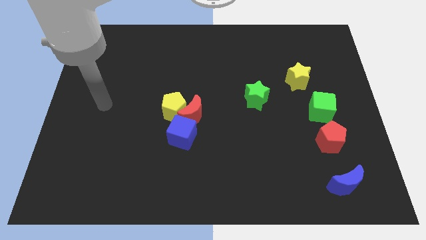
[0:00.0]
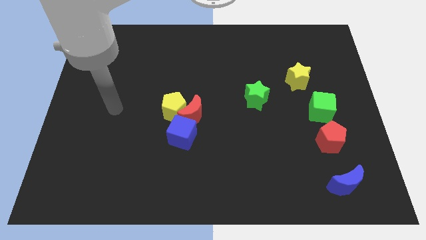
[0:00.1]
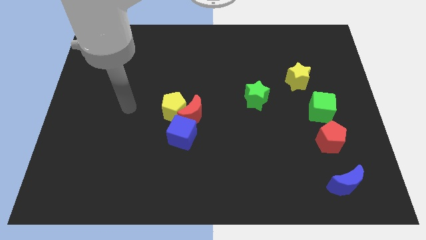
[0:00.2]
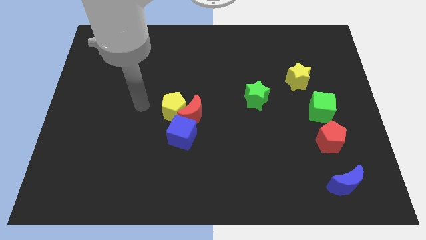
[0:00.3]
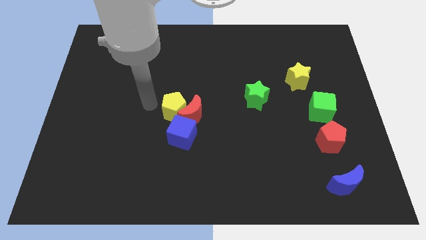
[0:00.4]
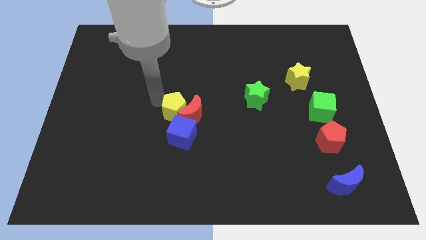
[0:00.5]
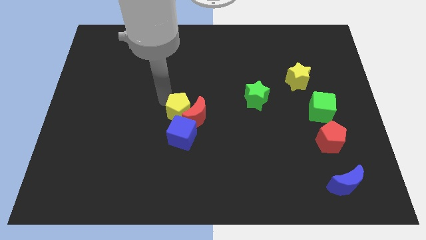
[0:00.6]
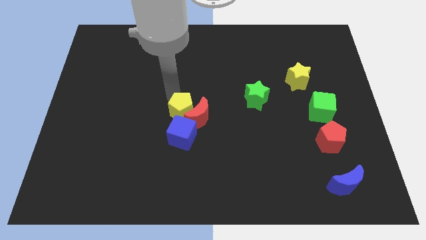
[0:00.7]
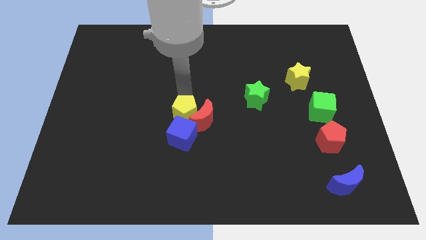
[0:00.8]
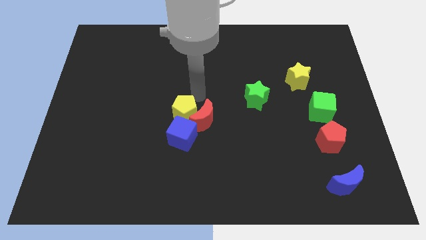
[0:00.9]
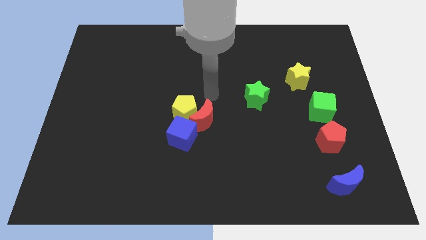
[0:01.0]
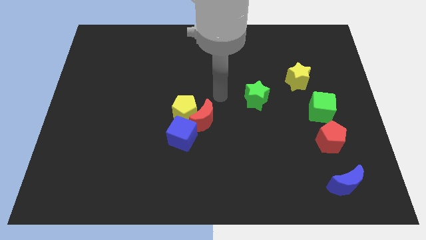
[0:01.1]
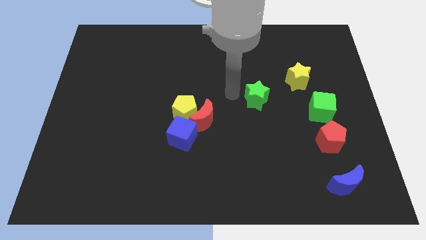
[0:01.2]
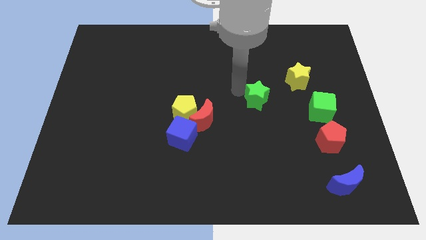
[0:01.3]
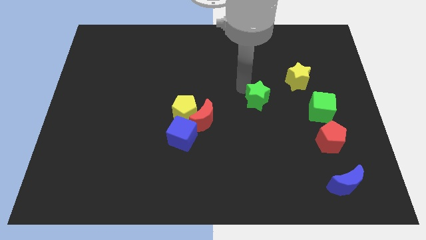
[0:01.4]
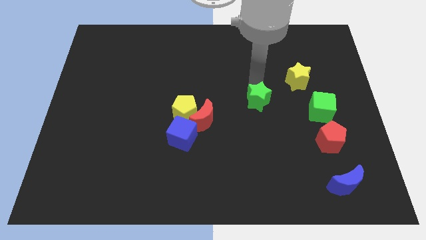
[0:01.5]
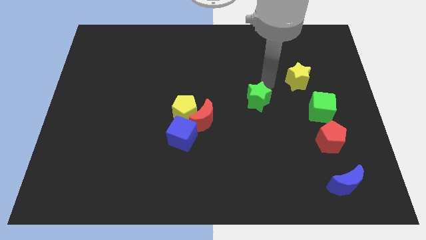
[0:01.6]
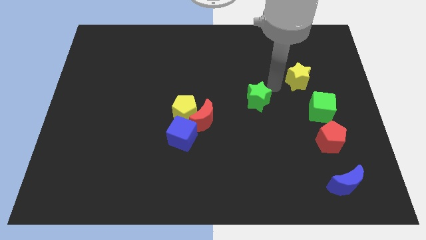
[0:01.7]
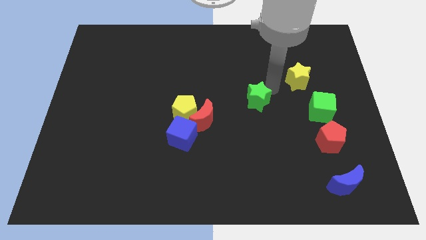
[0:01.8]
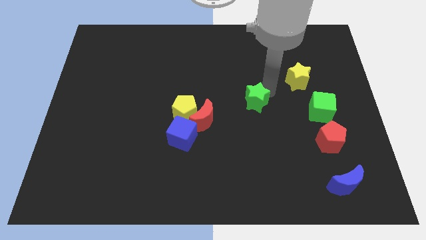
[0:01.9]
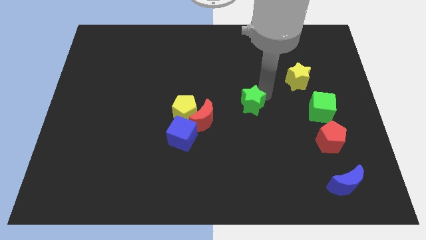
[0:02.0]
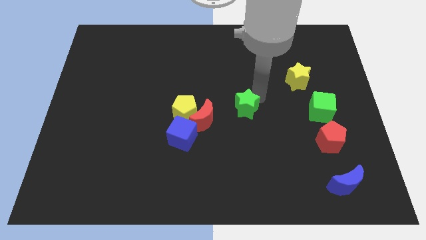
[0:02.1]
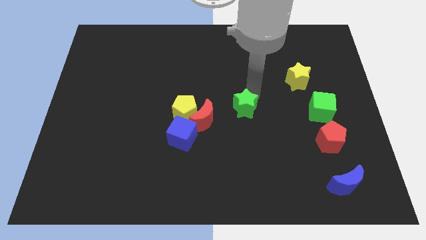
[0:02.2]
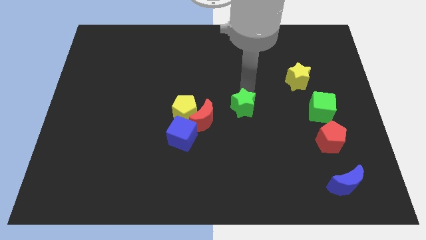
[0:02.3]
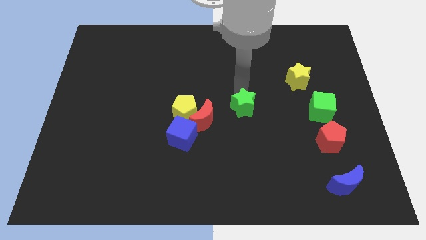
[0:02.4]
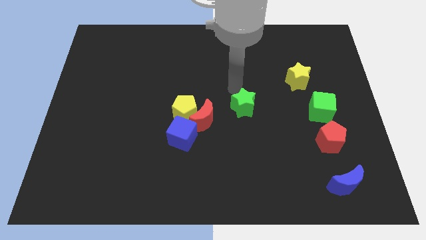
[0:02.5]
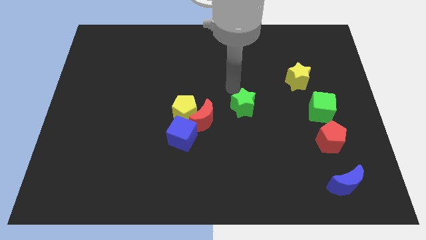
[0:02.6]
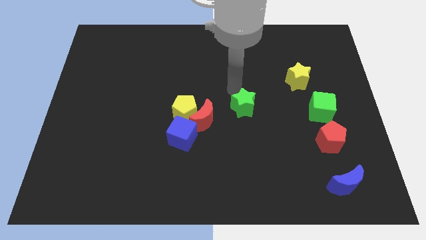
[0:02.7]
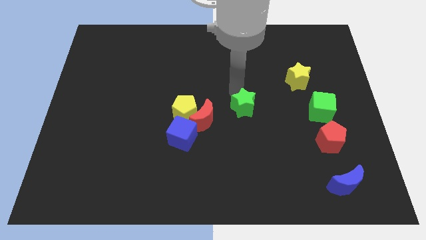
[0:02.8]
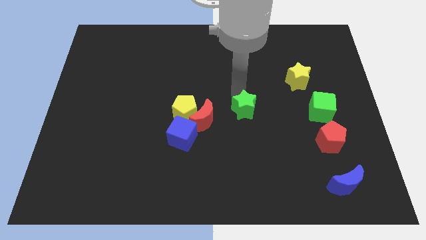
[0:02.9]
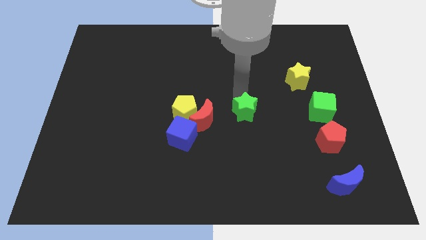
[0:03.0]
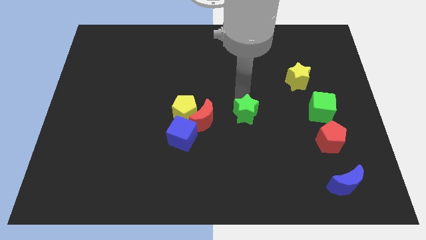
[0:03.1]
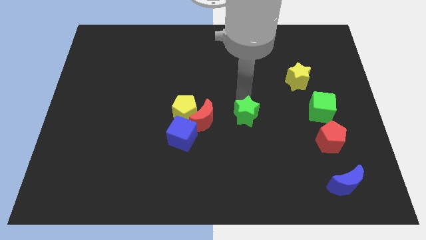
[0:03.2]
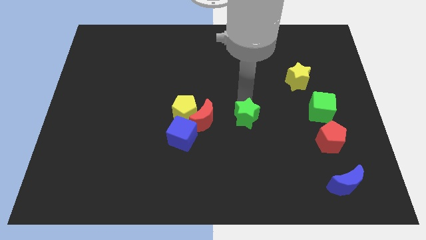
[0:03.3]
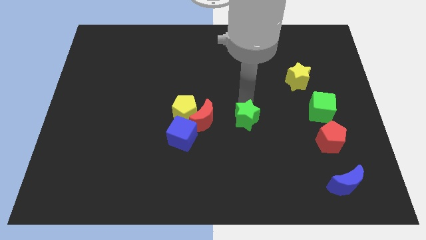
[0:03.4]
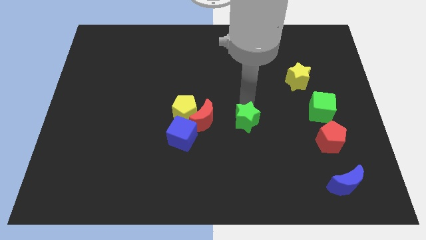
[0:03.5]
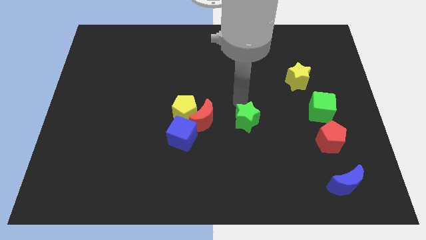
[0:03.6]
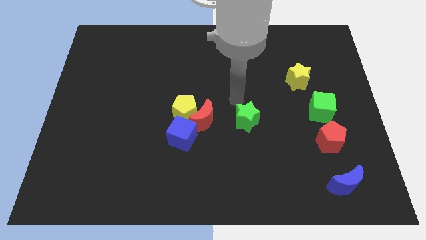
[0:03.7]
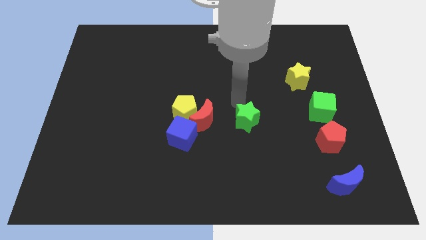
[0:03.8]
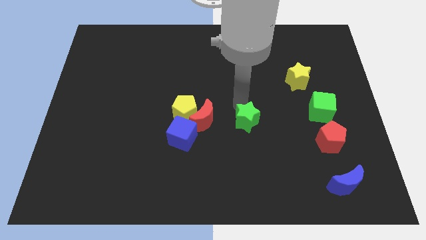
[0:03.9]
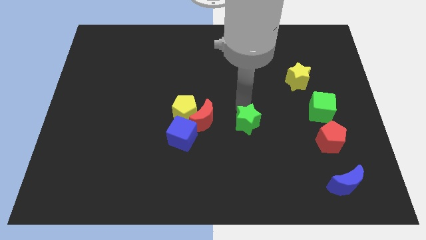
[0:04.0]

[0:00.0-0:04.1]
push the green star a bit downwards

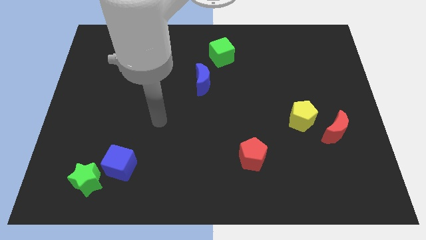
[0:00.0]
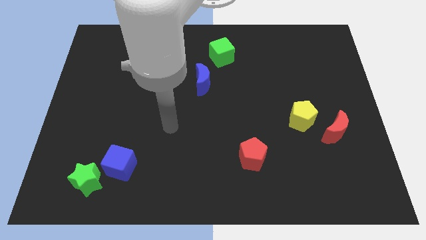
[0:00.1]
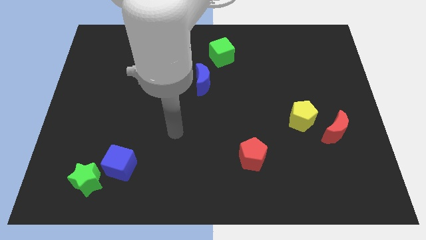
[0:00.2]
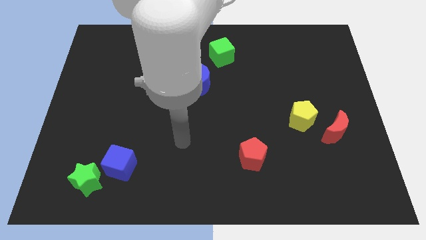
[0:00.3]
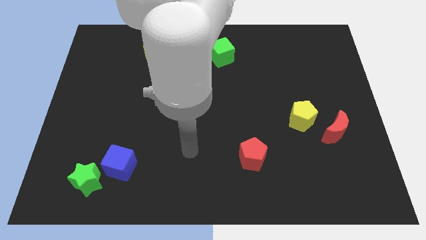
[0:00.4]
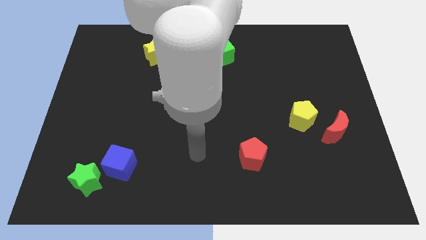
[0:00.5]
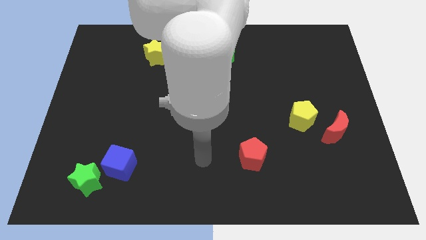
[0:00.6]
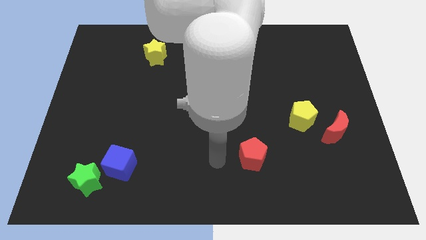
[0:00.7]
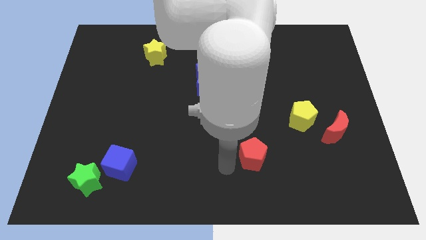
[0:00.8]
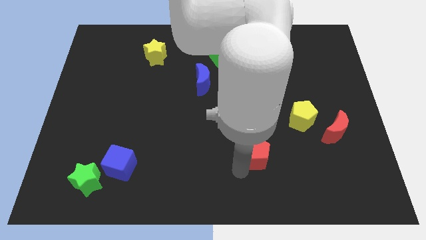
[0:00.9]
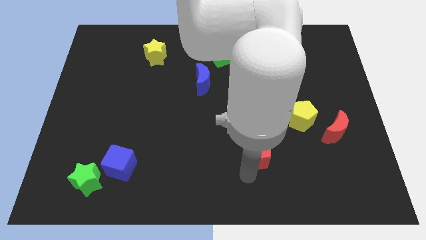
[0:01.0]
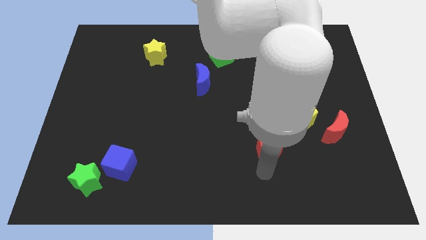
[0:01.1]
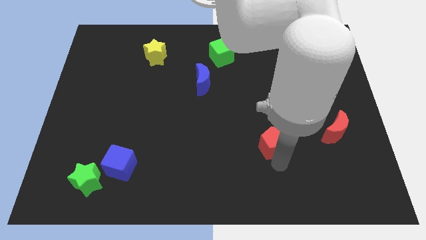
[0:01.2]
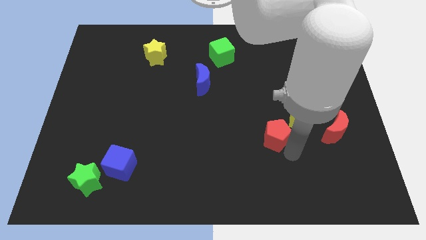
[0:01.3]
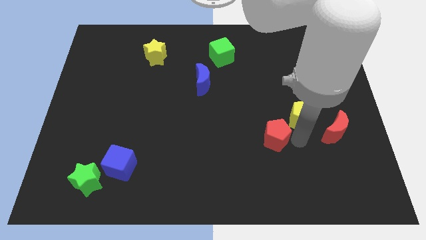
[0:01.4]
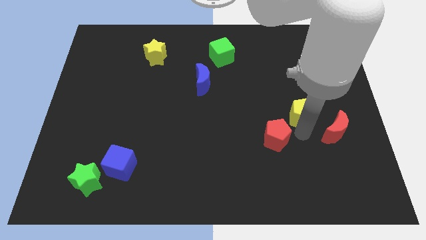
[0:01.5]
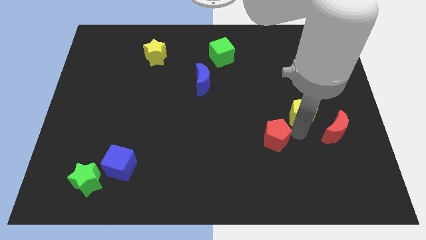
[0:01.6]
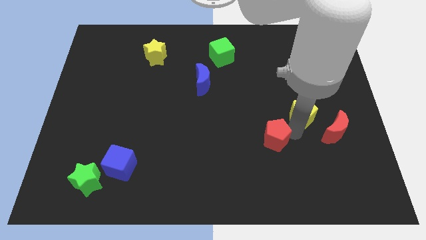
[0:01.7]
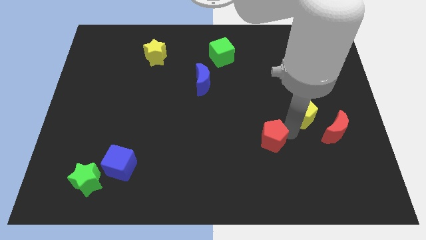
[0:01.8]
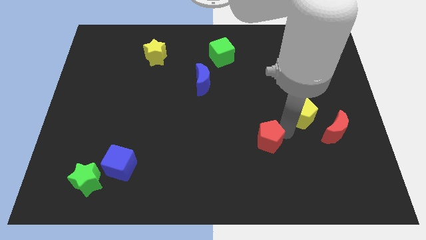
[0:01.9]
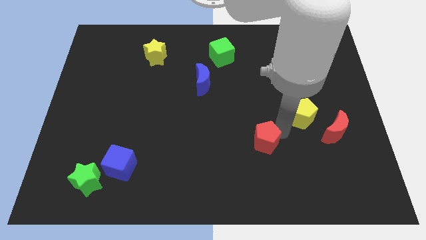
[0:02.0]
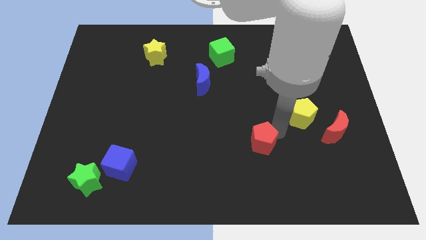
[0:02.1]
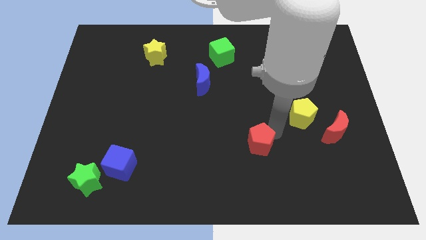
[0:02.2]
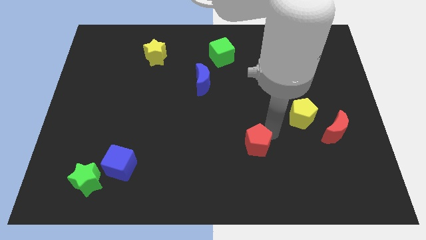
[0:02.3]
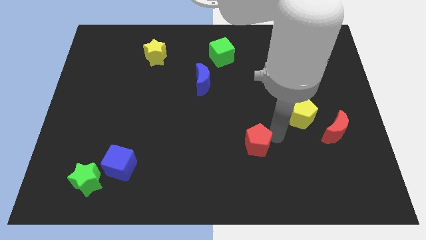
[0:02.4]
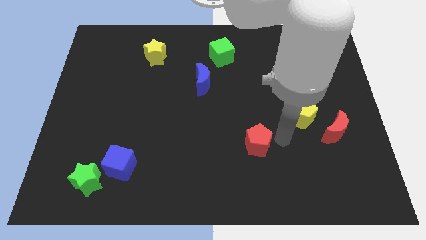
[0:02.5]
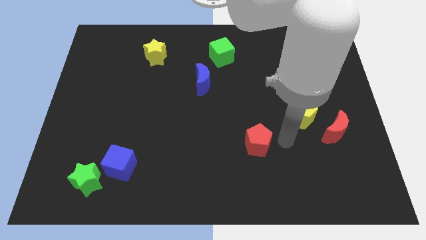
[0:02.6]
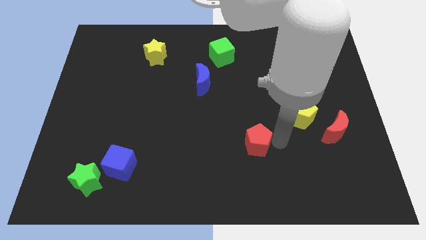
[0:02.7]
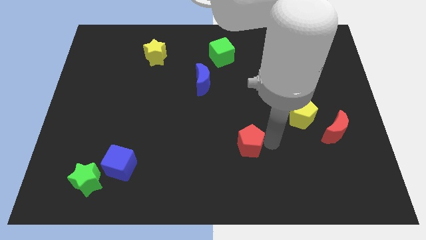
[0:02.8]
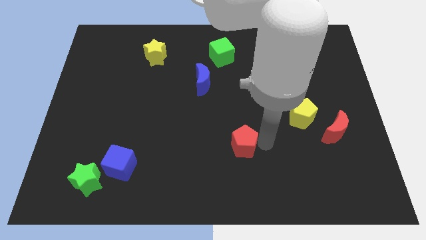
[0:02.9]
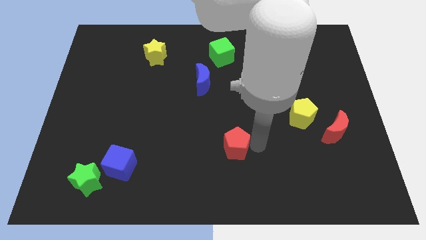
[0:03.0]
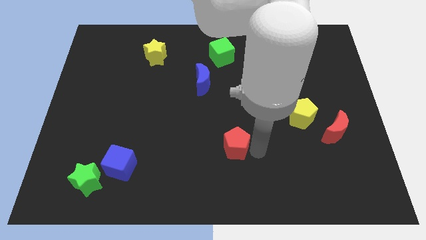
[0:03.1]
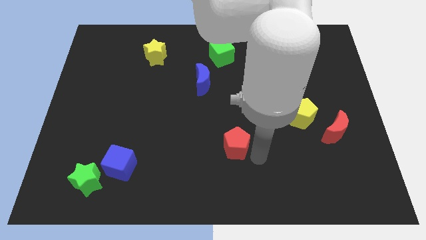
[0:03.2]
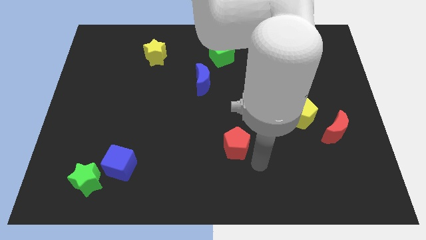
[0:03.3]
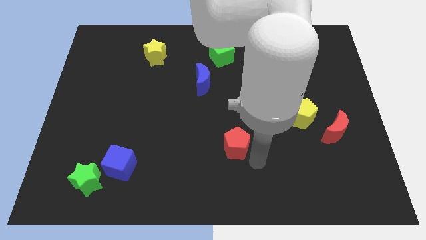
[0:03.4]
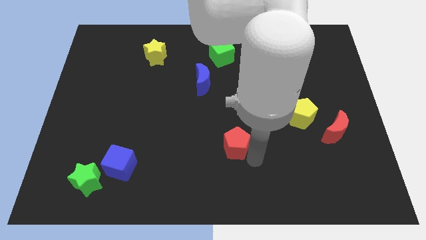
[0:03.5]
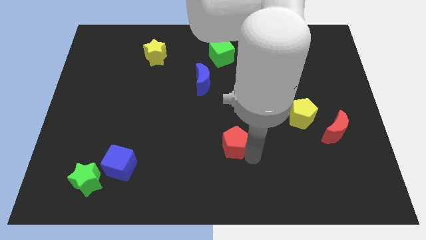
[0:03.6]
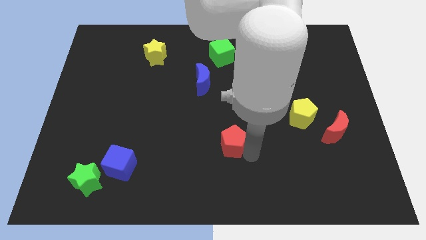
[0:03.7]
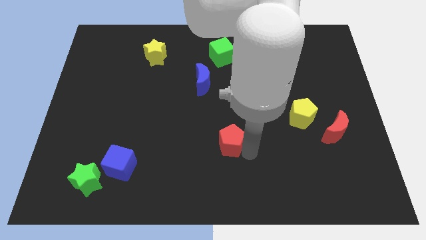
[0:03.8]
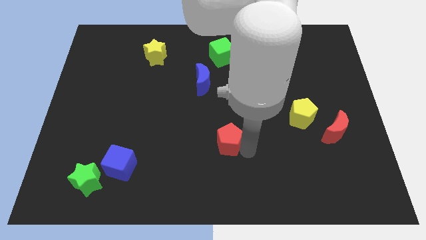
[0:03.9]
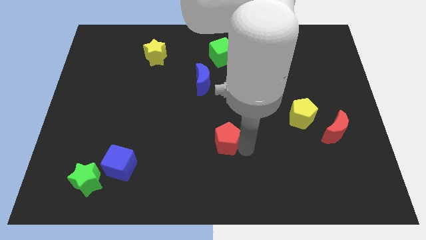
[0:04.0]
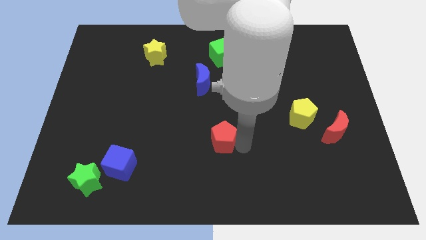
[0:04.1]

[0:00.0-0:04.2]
push the red pentagon up and to the left diagonally somewhat

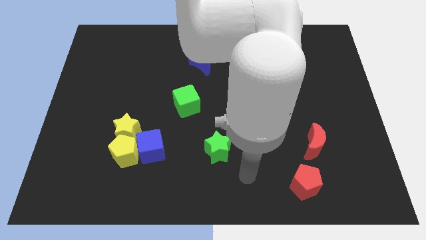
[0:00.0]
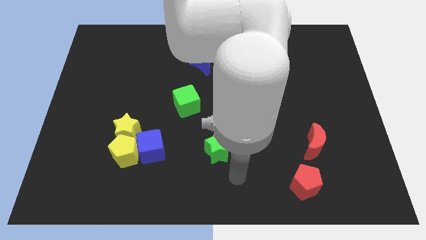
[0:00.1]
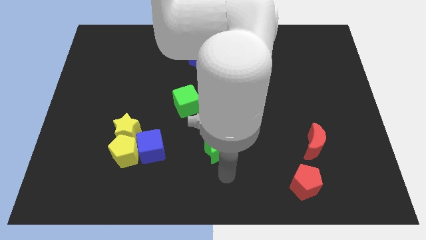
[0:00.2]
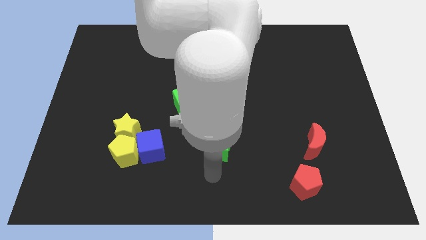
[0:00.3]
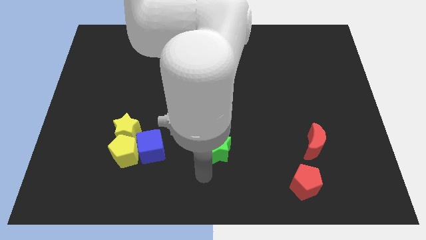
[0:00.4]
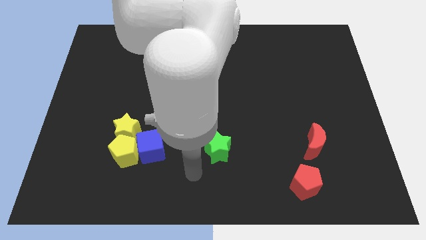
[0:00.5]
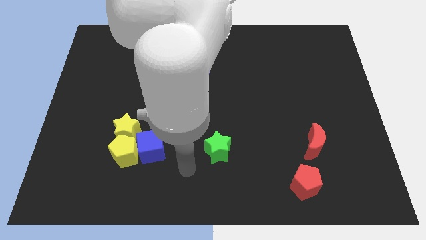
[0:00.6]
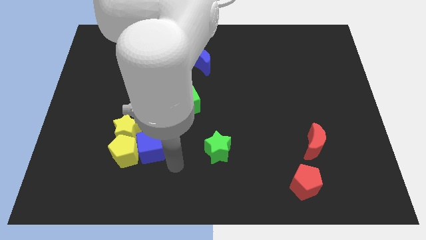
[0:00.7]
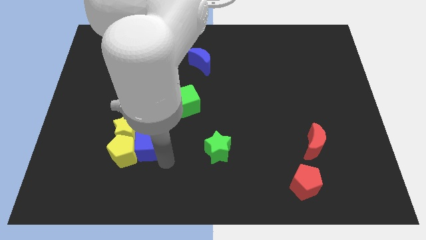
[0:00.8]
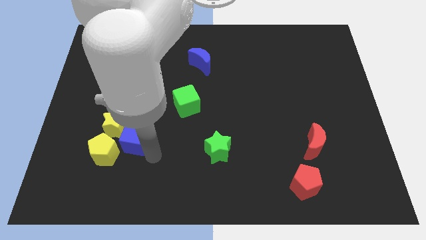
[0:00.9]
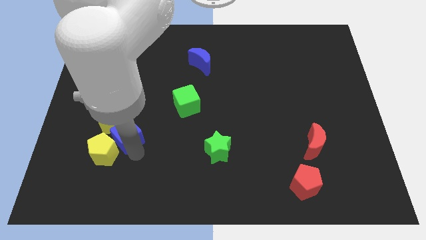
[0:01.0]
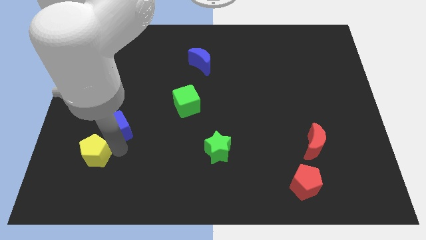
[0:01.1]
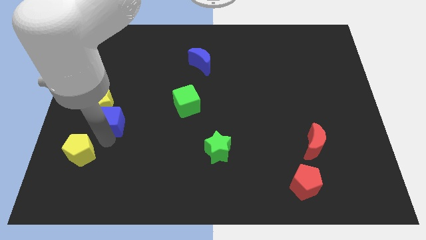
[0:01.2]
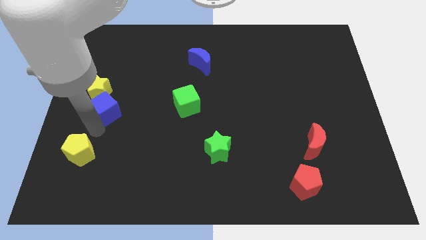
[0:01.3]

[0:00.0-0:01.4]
slide the yellow star up somewhat
